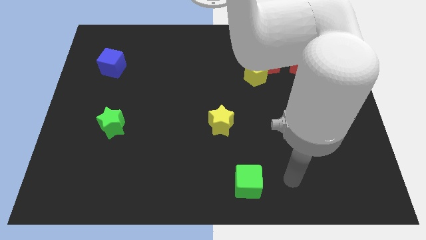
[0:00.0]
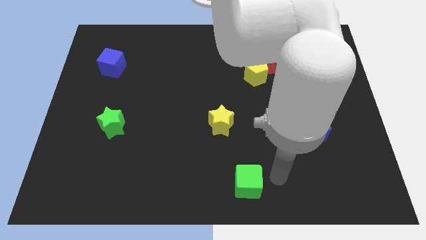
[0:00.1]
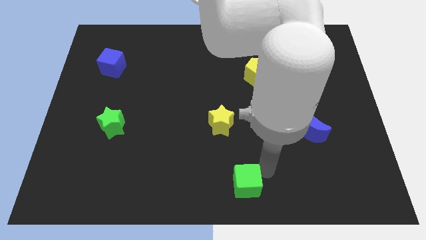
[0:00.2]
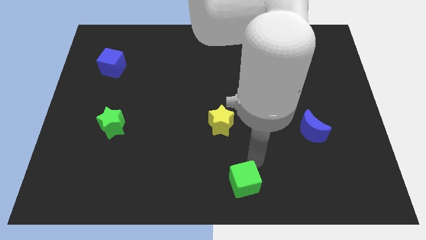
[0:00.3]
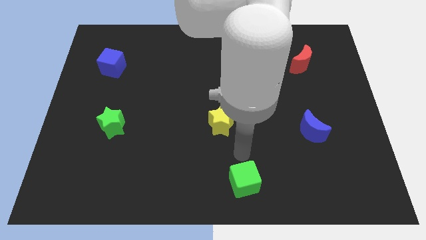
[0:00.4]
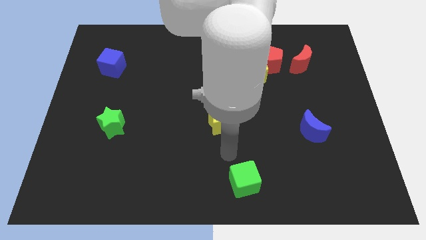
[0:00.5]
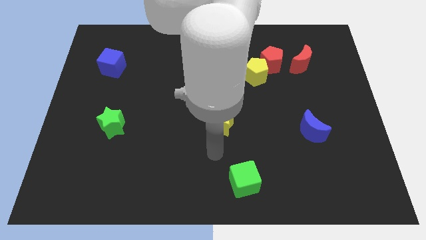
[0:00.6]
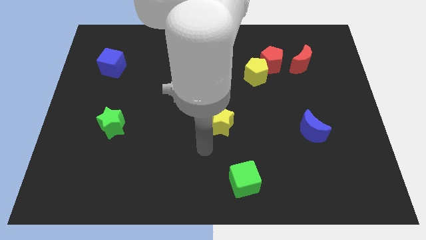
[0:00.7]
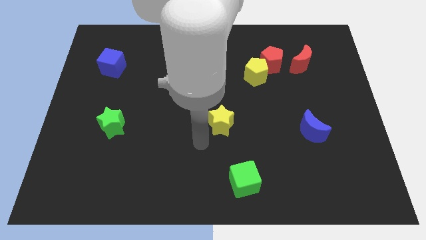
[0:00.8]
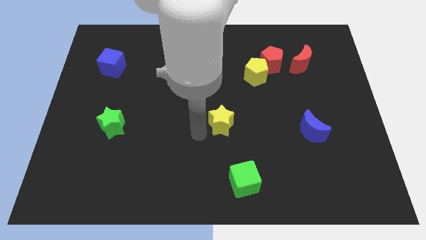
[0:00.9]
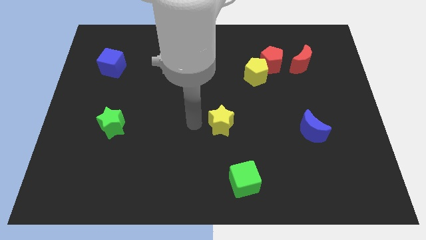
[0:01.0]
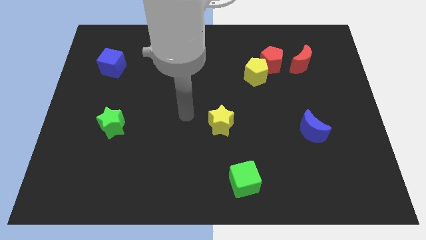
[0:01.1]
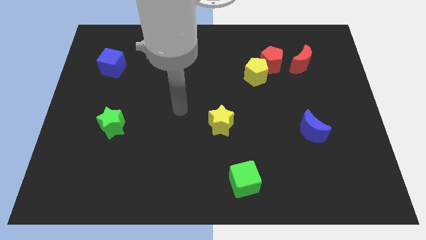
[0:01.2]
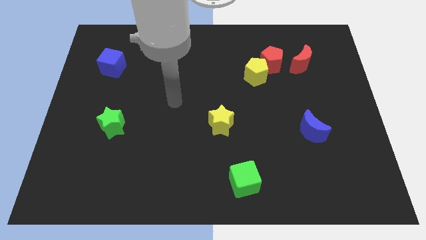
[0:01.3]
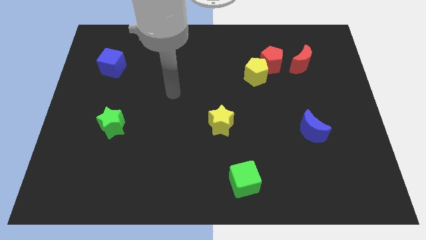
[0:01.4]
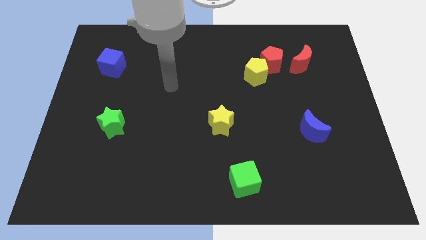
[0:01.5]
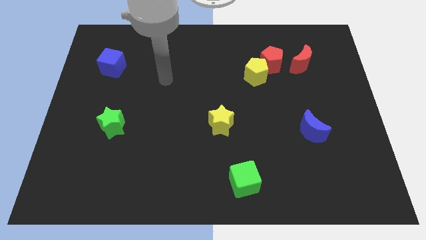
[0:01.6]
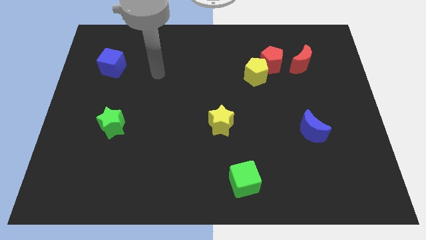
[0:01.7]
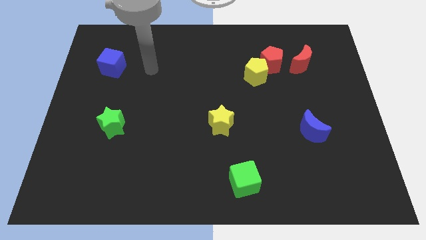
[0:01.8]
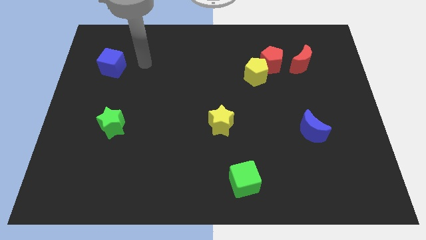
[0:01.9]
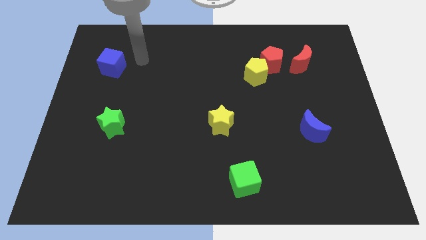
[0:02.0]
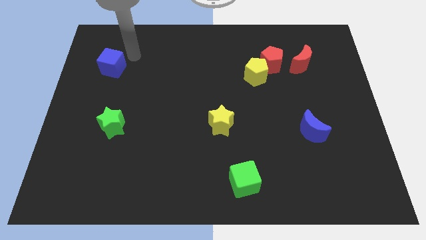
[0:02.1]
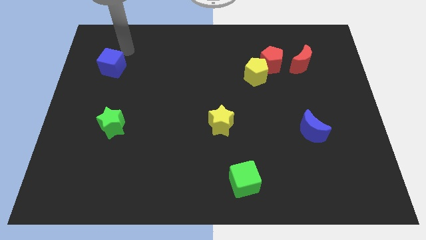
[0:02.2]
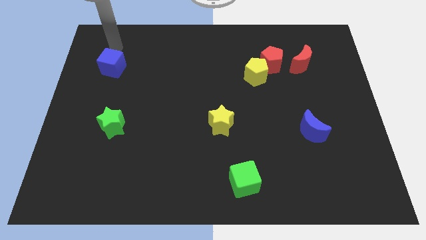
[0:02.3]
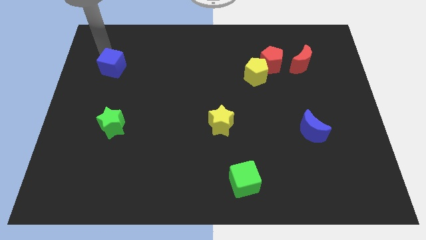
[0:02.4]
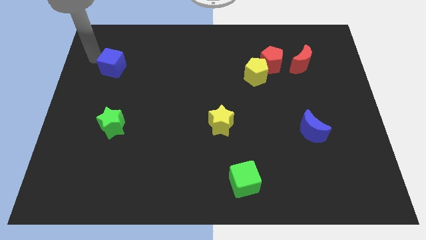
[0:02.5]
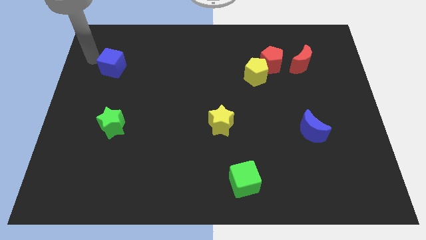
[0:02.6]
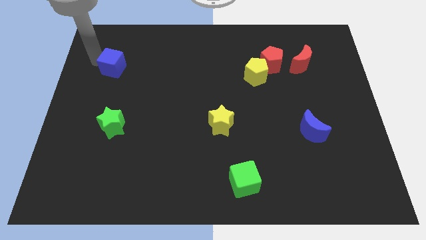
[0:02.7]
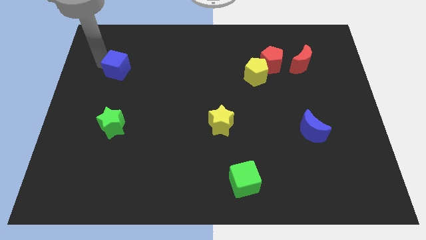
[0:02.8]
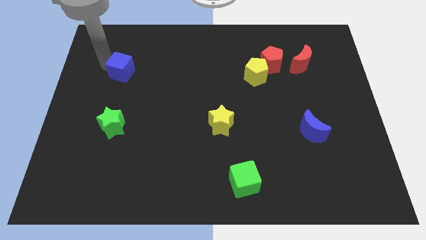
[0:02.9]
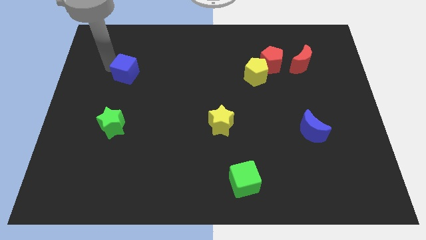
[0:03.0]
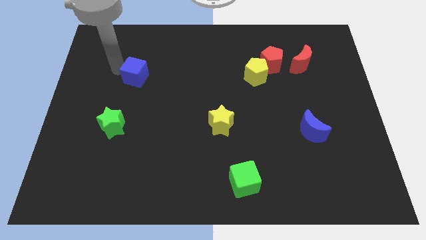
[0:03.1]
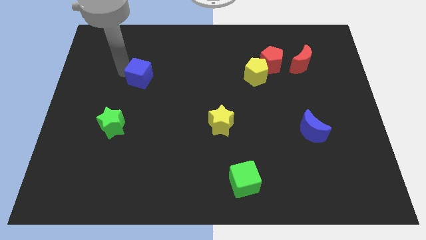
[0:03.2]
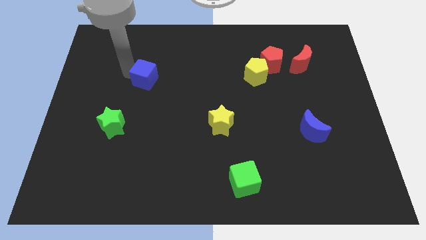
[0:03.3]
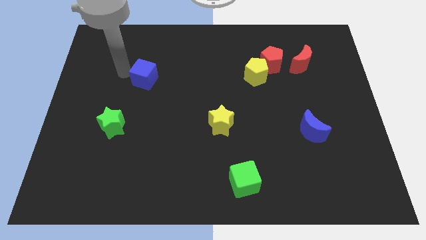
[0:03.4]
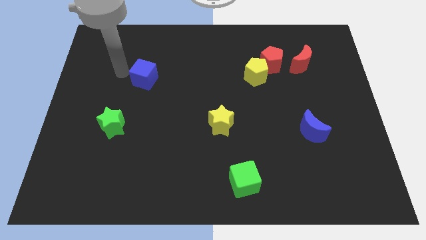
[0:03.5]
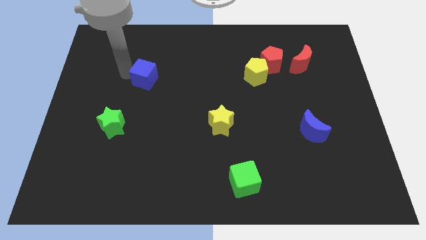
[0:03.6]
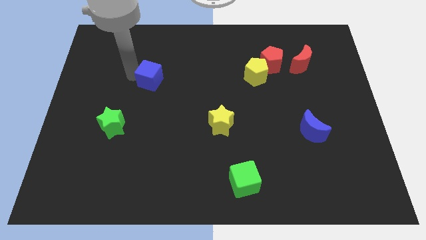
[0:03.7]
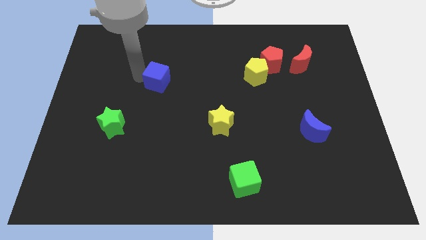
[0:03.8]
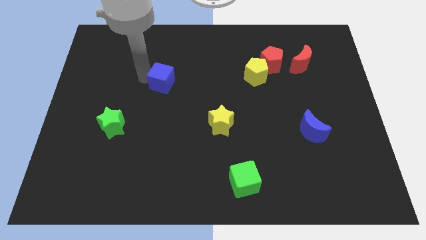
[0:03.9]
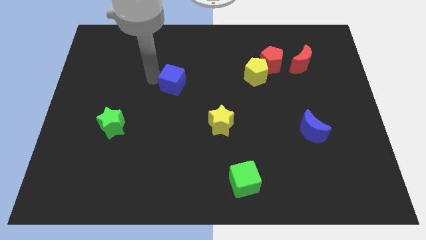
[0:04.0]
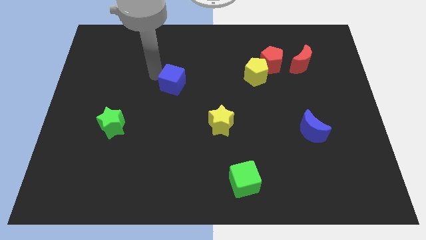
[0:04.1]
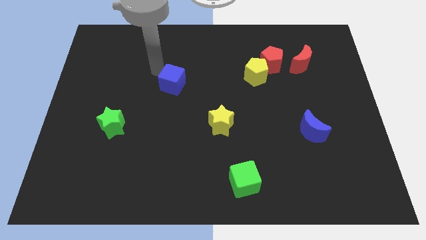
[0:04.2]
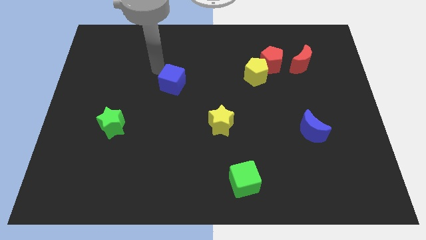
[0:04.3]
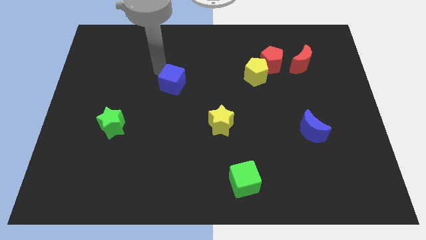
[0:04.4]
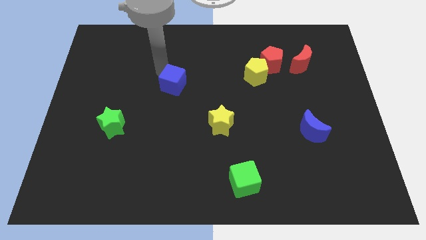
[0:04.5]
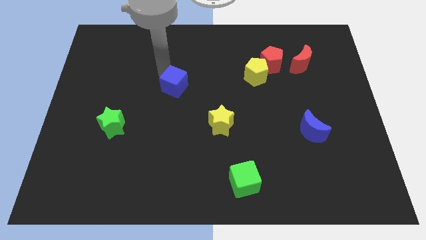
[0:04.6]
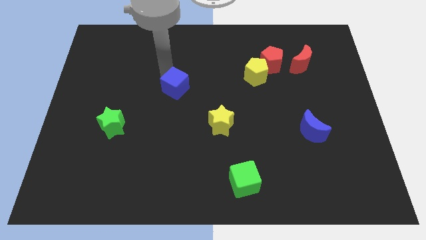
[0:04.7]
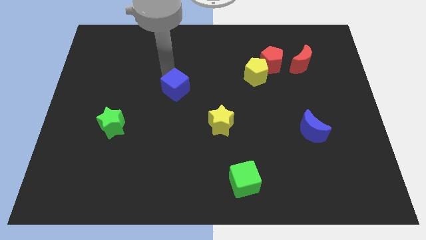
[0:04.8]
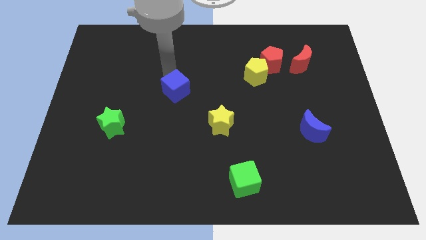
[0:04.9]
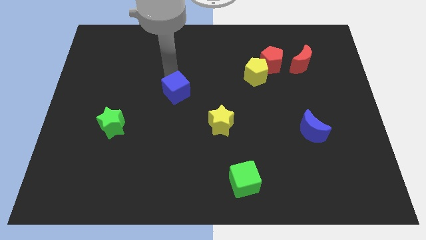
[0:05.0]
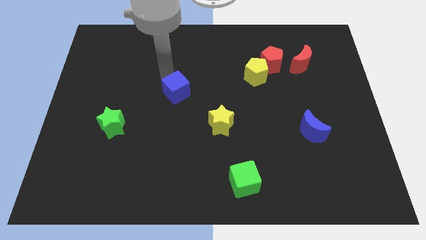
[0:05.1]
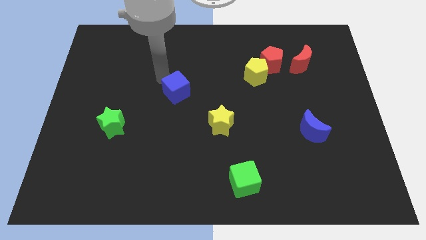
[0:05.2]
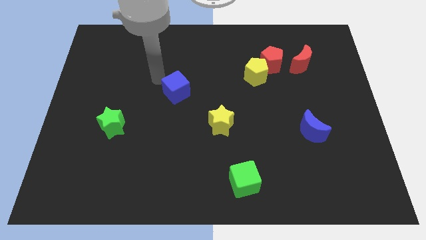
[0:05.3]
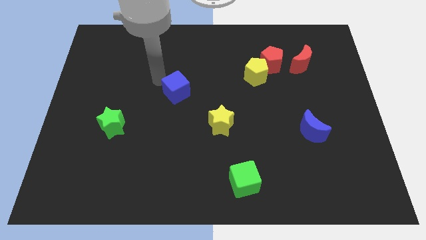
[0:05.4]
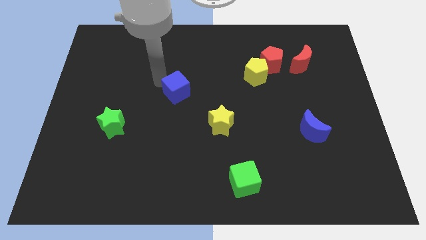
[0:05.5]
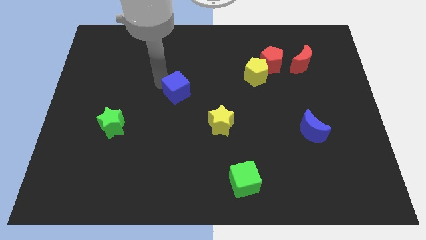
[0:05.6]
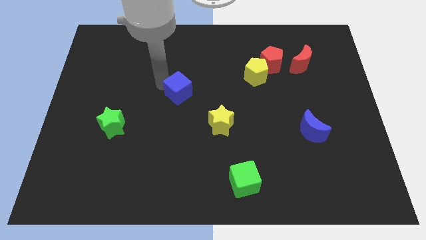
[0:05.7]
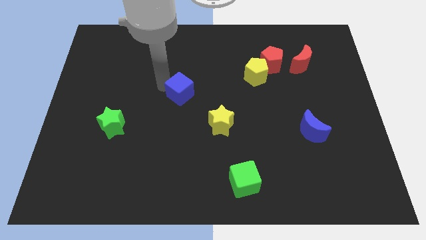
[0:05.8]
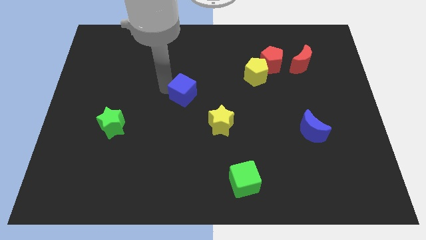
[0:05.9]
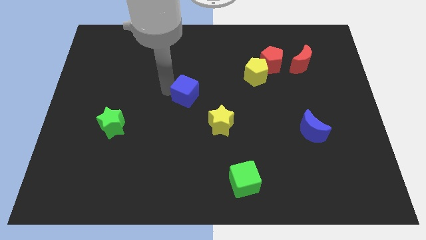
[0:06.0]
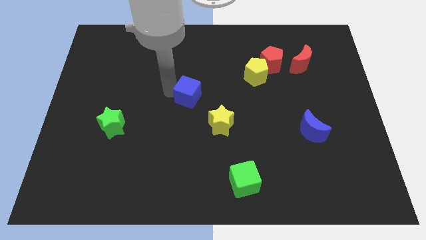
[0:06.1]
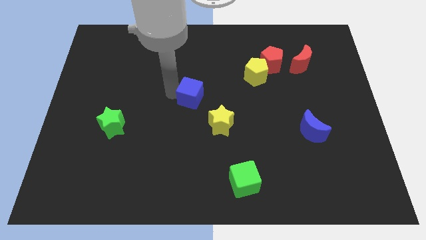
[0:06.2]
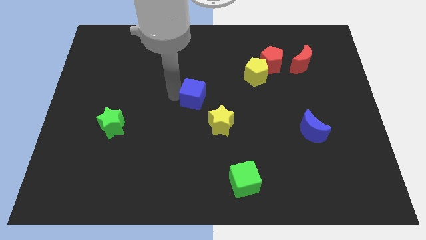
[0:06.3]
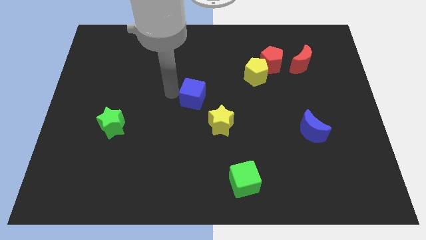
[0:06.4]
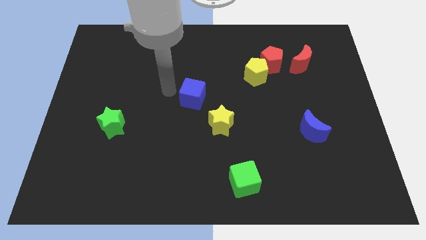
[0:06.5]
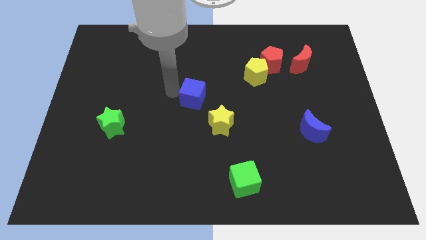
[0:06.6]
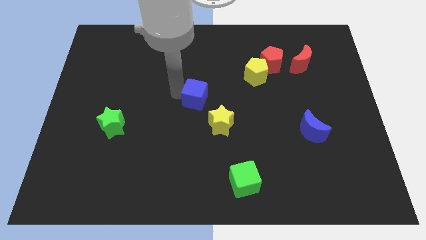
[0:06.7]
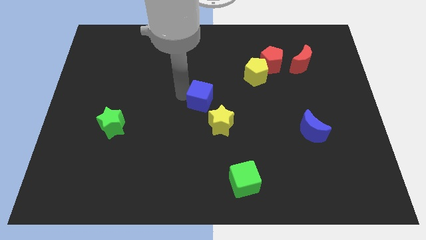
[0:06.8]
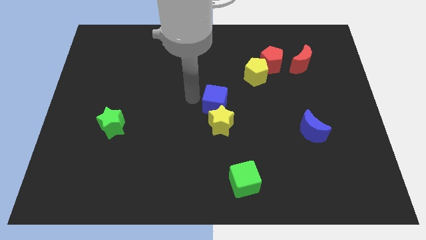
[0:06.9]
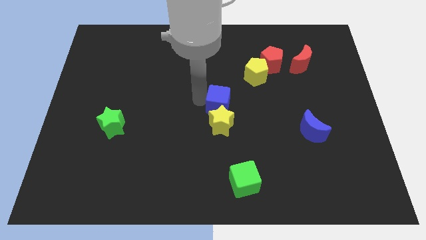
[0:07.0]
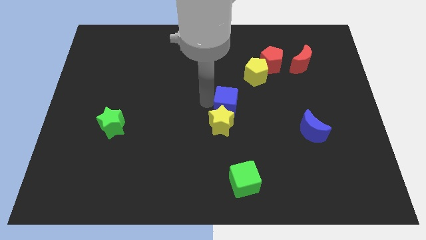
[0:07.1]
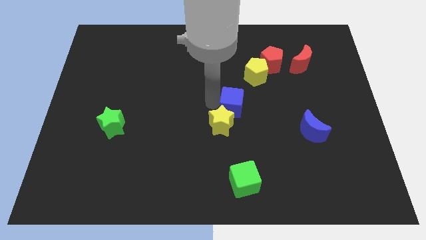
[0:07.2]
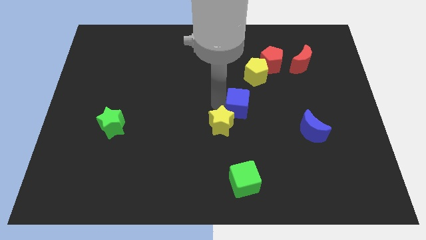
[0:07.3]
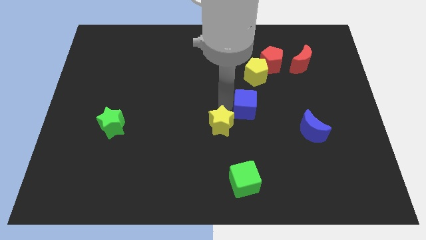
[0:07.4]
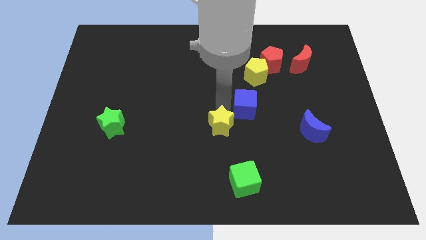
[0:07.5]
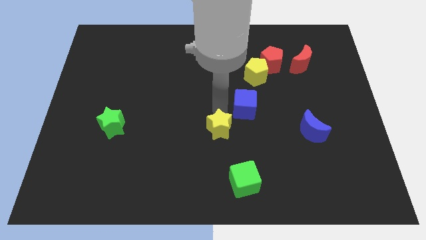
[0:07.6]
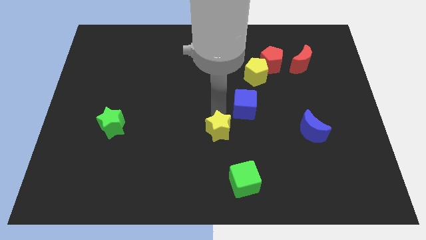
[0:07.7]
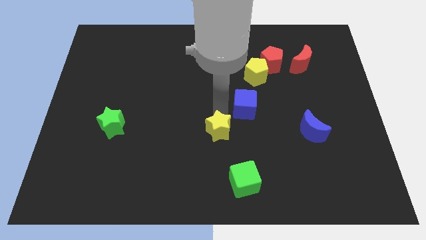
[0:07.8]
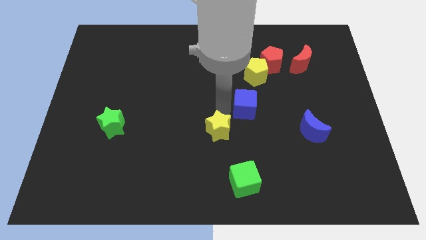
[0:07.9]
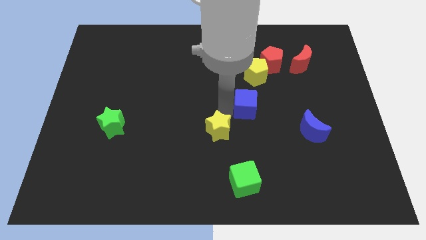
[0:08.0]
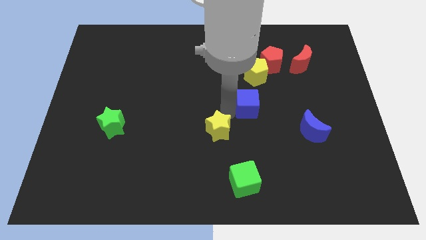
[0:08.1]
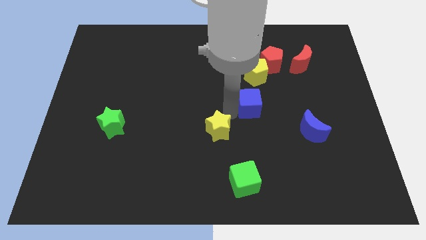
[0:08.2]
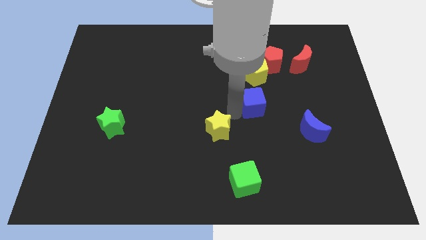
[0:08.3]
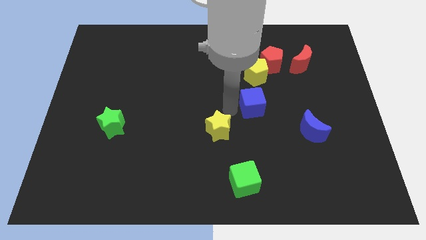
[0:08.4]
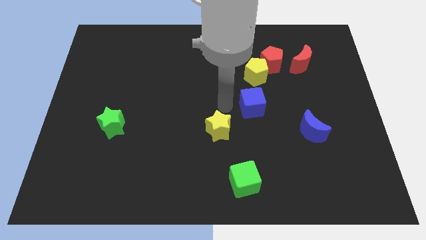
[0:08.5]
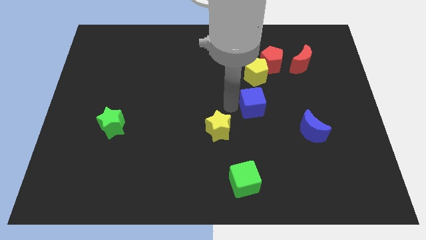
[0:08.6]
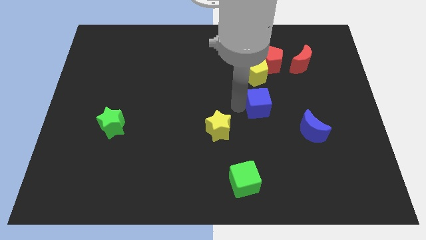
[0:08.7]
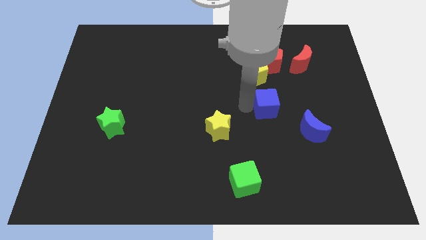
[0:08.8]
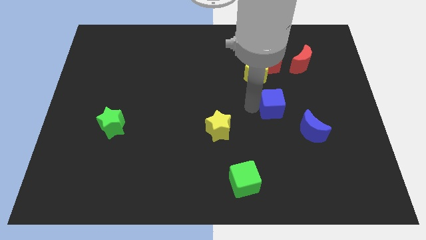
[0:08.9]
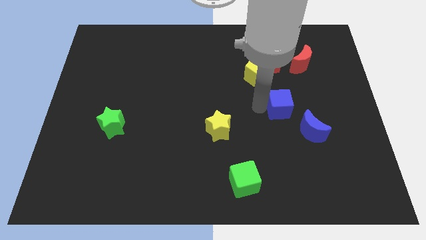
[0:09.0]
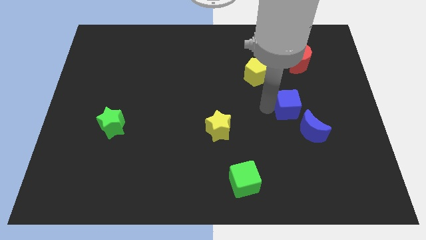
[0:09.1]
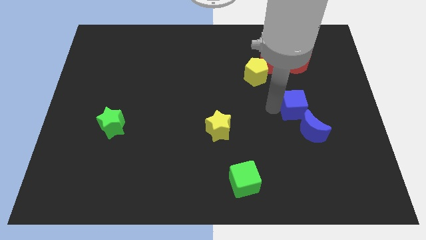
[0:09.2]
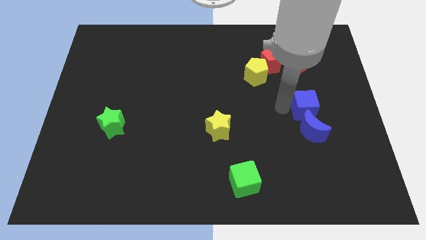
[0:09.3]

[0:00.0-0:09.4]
put the blue cube to the top right of the blue moon
